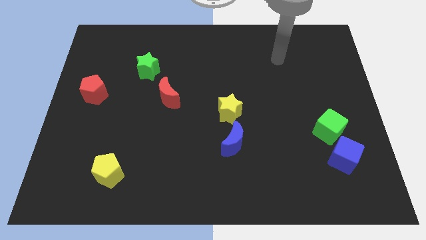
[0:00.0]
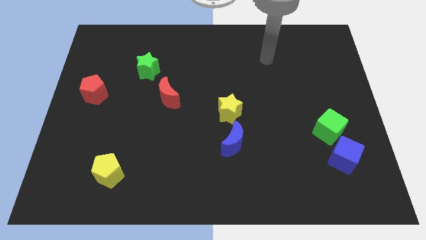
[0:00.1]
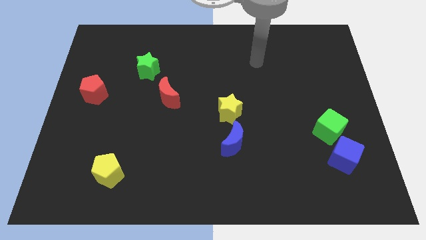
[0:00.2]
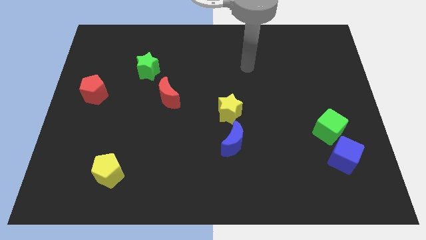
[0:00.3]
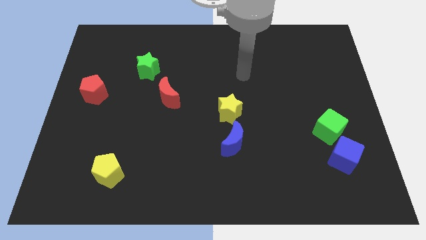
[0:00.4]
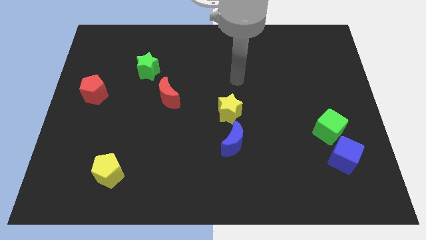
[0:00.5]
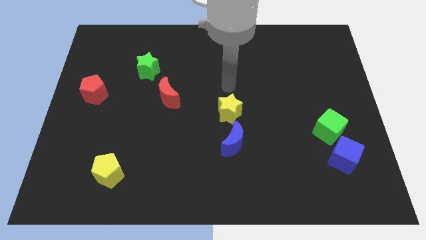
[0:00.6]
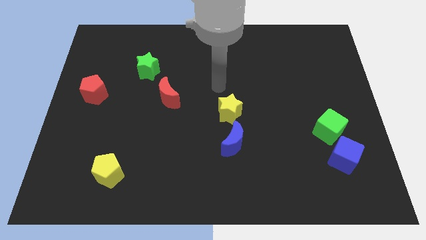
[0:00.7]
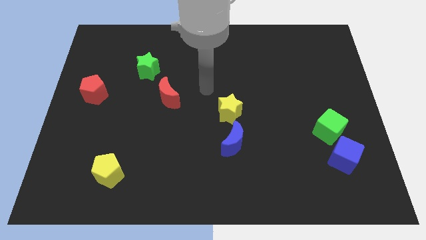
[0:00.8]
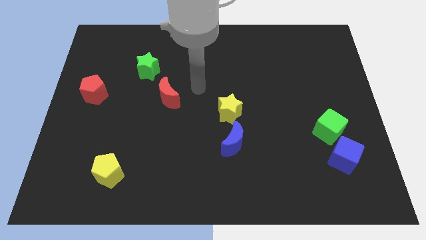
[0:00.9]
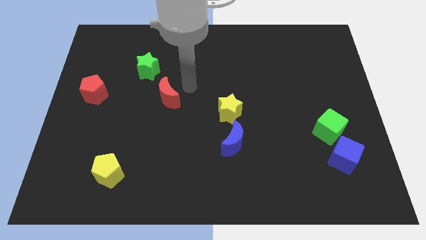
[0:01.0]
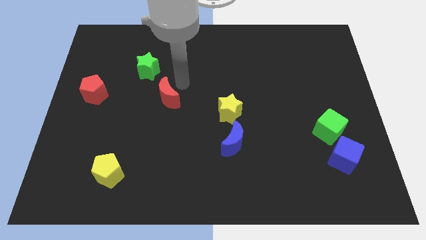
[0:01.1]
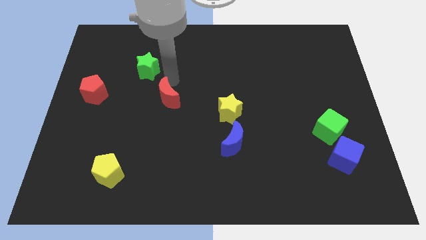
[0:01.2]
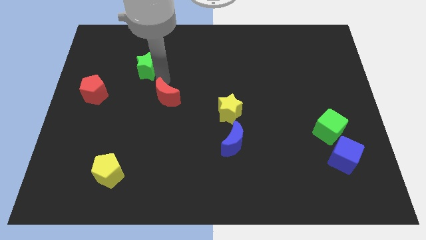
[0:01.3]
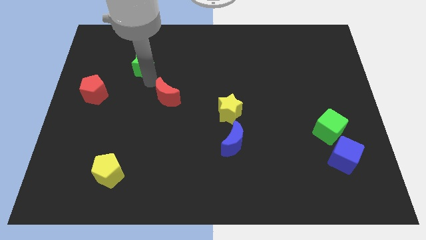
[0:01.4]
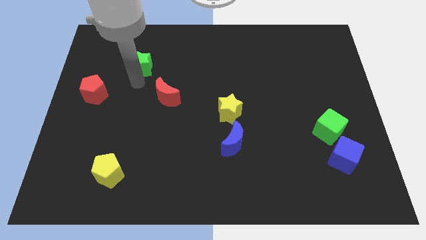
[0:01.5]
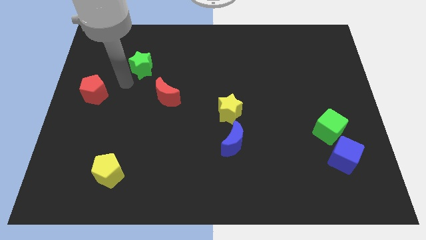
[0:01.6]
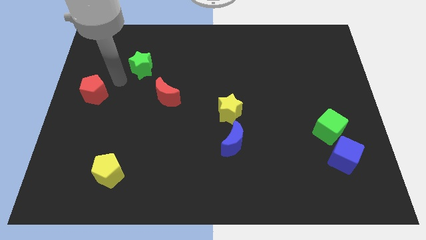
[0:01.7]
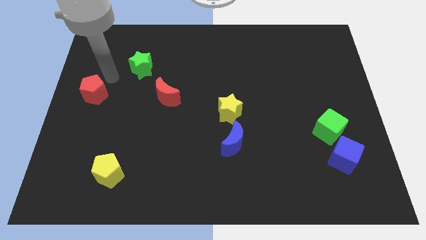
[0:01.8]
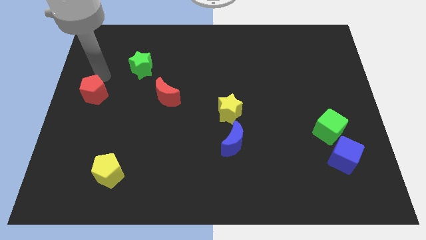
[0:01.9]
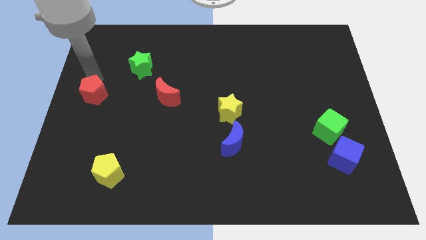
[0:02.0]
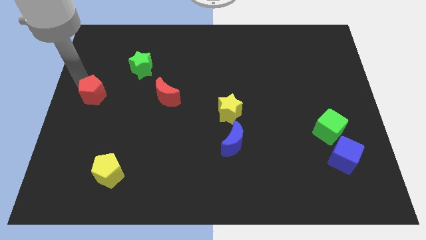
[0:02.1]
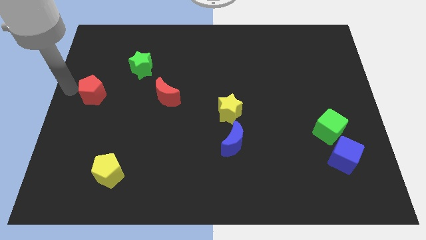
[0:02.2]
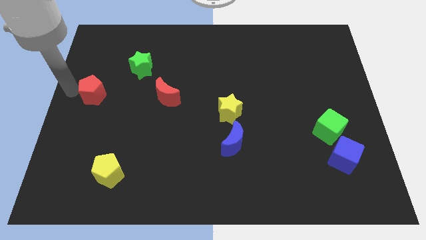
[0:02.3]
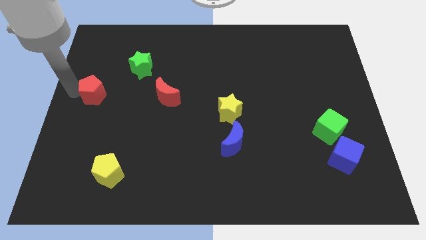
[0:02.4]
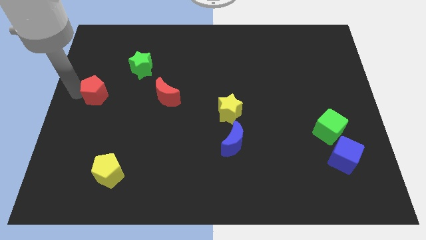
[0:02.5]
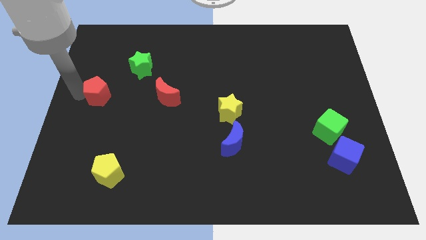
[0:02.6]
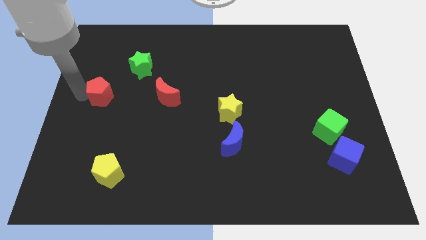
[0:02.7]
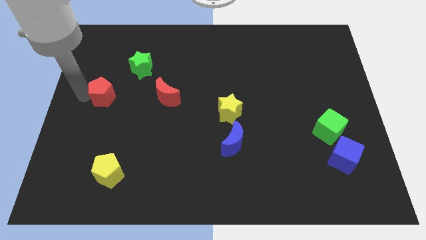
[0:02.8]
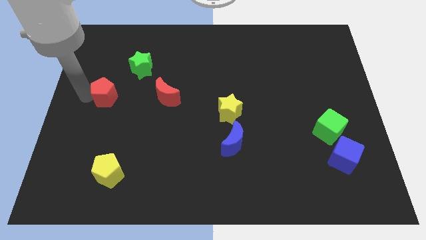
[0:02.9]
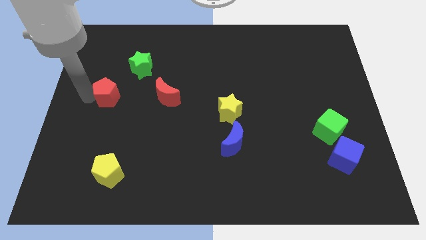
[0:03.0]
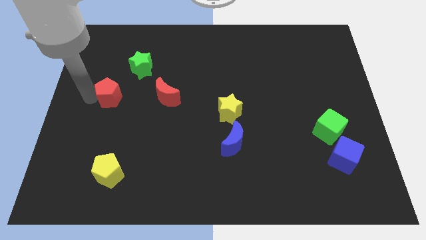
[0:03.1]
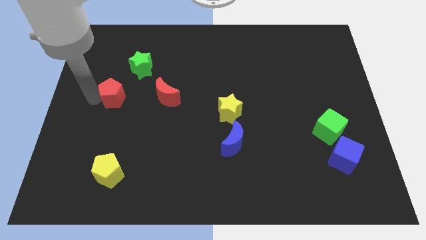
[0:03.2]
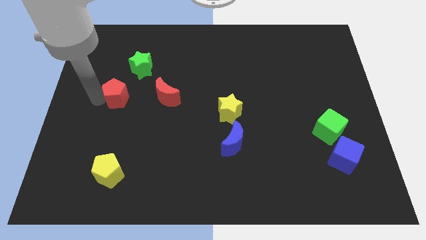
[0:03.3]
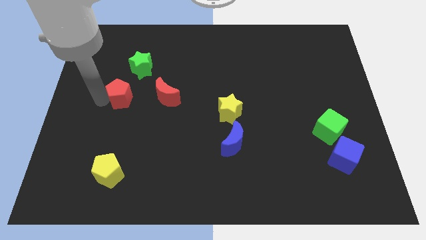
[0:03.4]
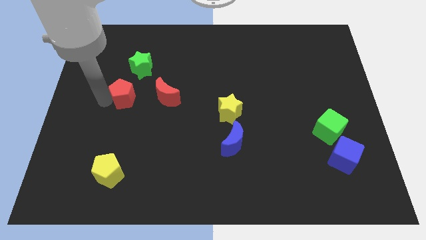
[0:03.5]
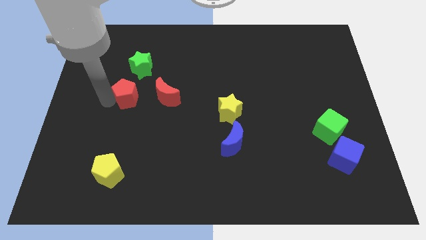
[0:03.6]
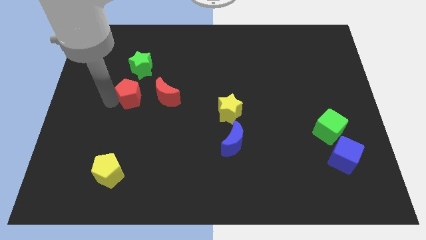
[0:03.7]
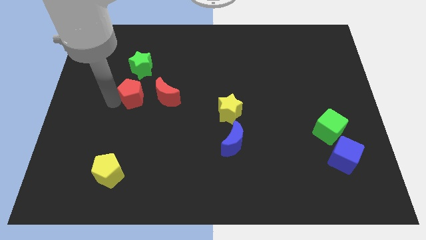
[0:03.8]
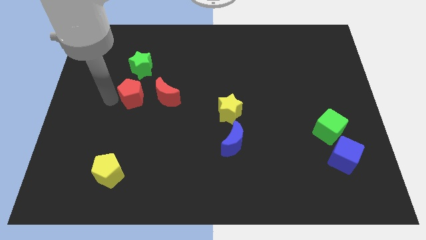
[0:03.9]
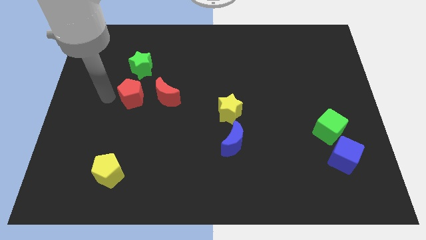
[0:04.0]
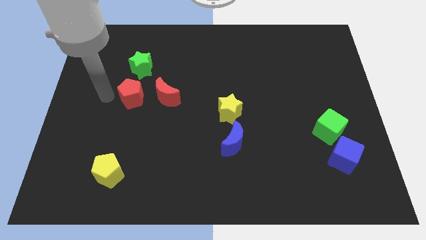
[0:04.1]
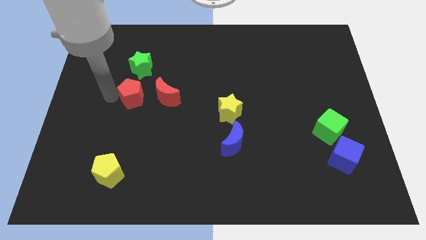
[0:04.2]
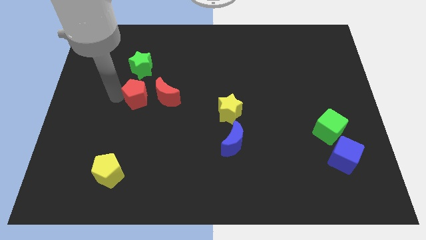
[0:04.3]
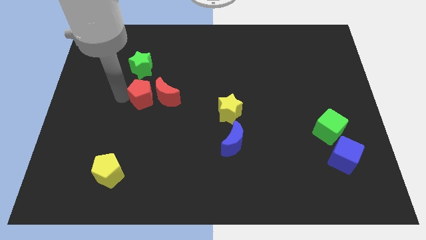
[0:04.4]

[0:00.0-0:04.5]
put the red pentagon to the red moon

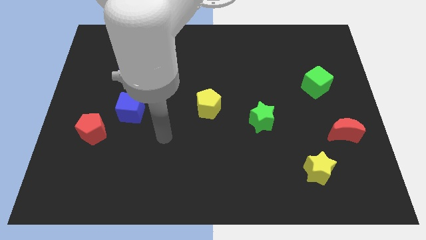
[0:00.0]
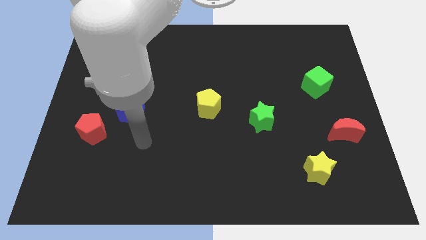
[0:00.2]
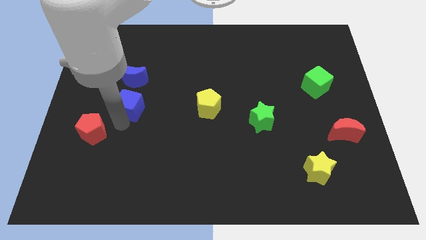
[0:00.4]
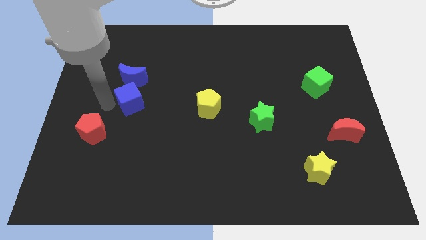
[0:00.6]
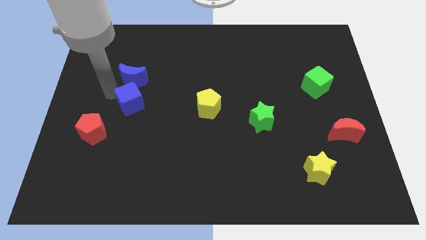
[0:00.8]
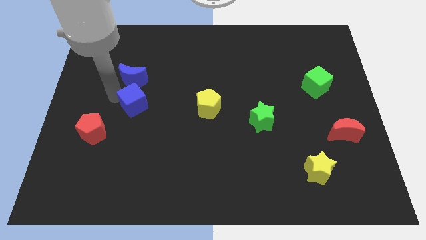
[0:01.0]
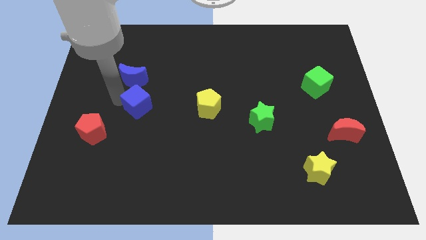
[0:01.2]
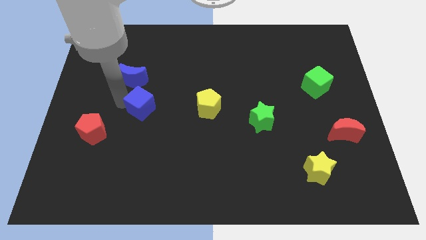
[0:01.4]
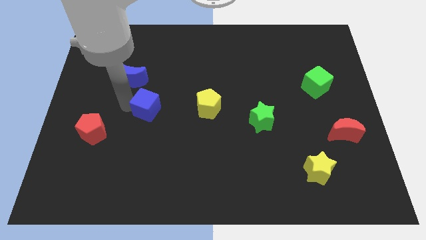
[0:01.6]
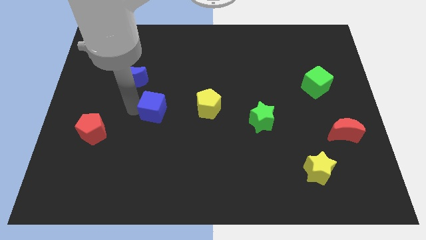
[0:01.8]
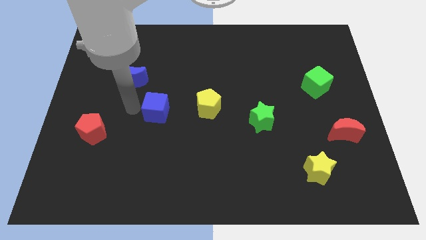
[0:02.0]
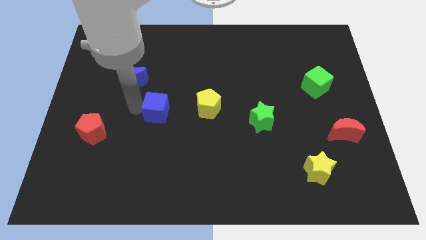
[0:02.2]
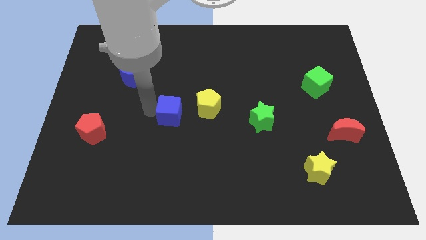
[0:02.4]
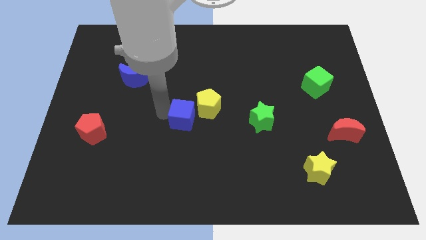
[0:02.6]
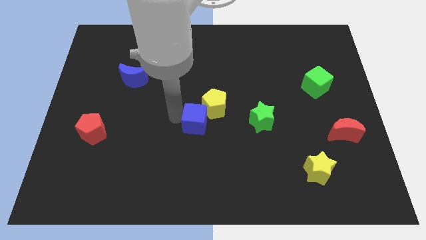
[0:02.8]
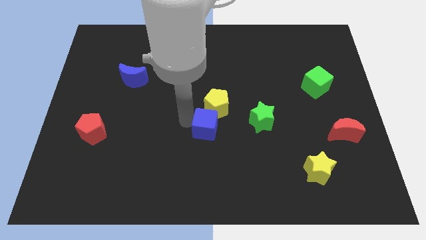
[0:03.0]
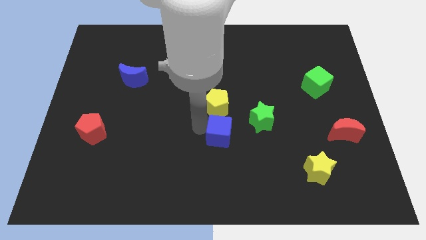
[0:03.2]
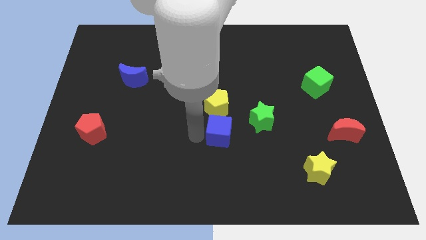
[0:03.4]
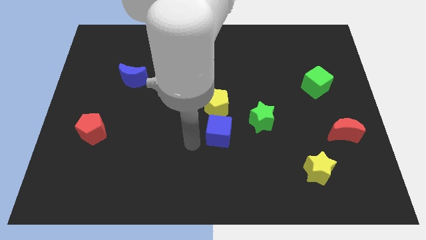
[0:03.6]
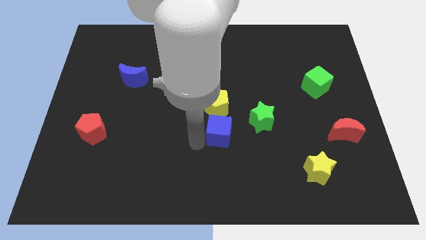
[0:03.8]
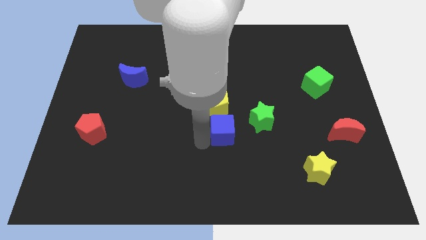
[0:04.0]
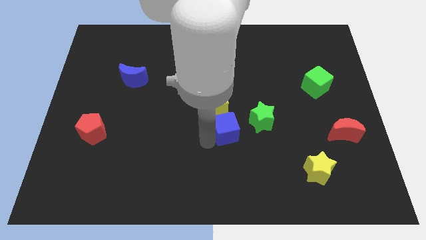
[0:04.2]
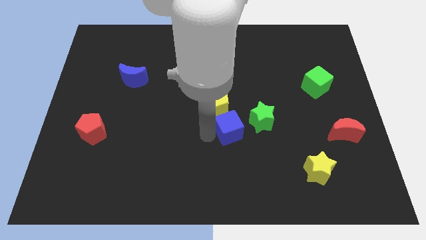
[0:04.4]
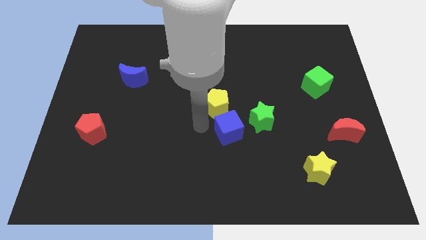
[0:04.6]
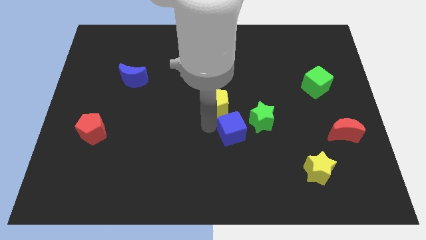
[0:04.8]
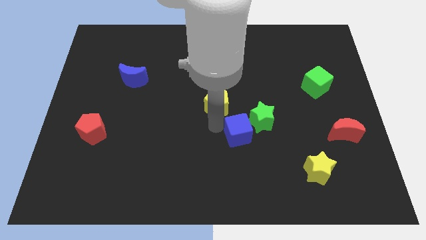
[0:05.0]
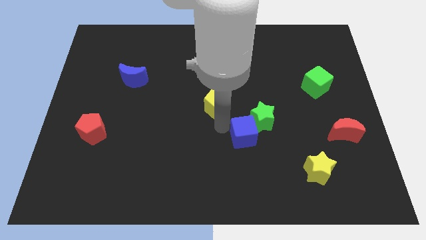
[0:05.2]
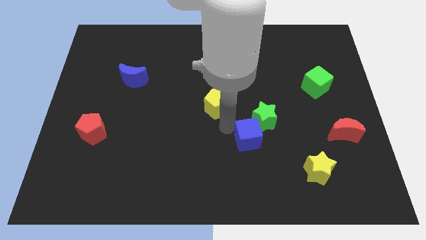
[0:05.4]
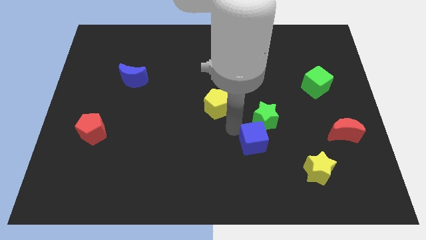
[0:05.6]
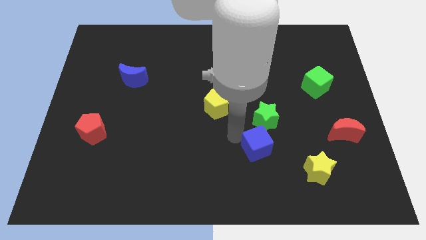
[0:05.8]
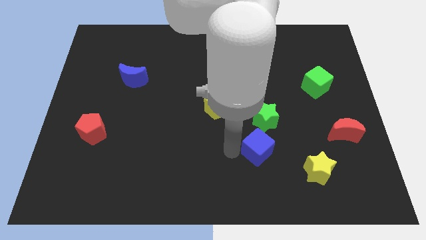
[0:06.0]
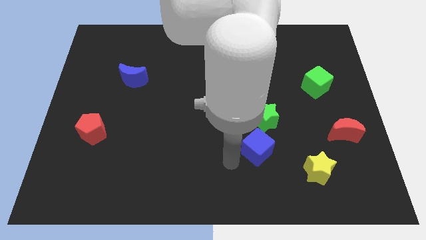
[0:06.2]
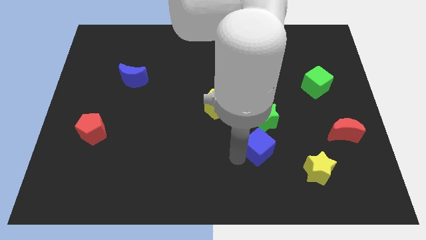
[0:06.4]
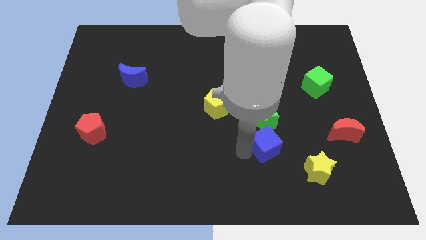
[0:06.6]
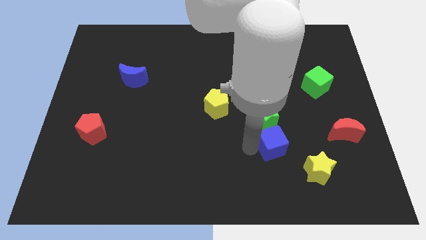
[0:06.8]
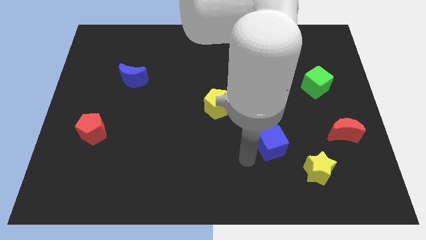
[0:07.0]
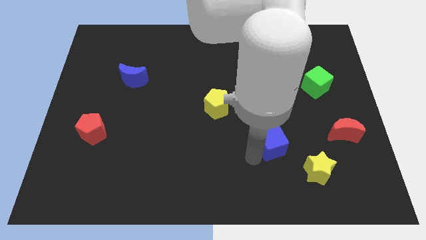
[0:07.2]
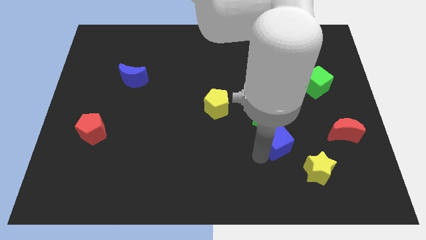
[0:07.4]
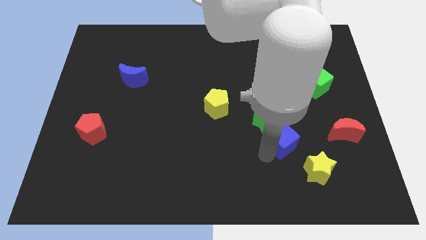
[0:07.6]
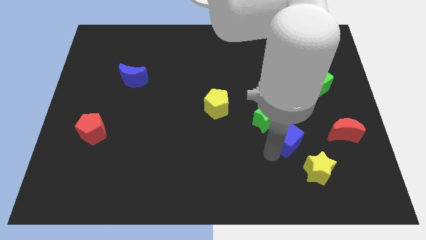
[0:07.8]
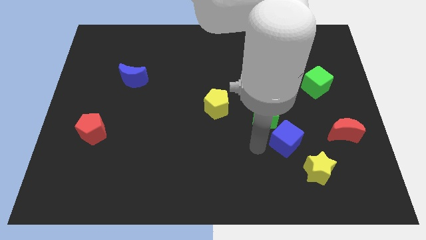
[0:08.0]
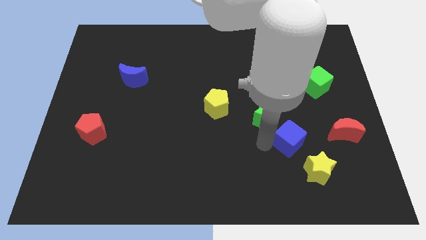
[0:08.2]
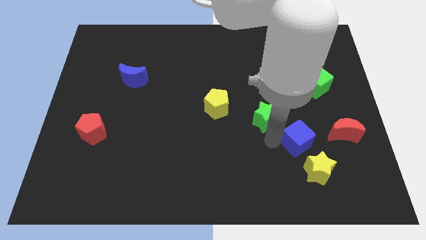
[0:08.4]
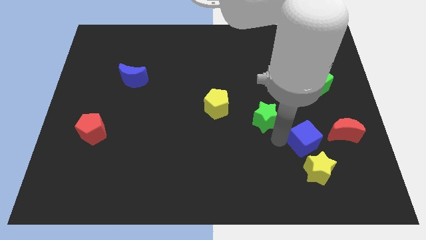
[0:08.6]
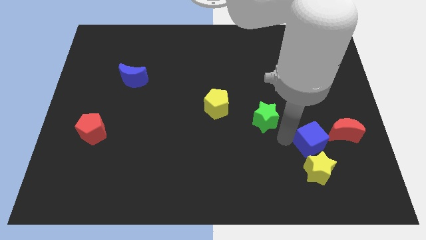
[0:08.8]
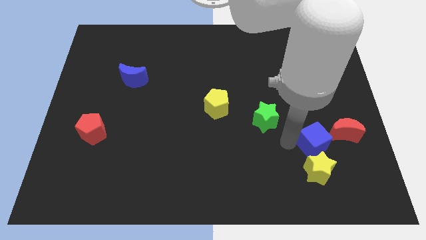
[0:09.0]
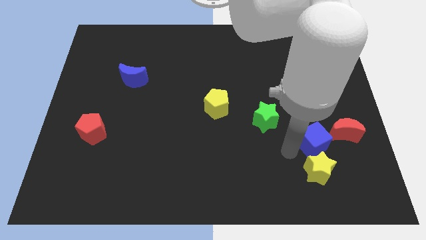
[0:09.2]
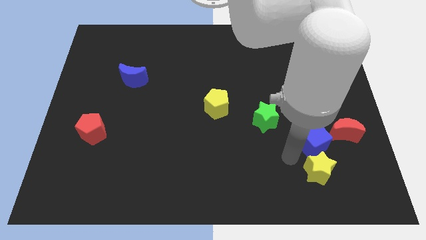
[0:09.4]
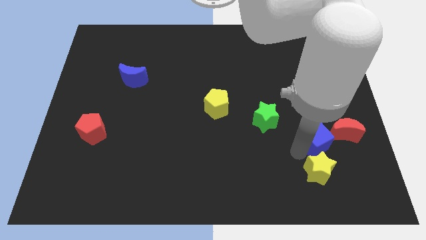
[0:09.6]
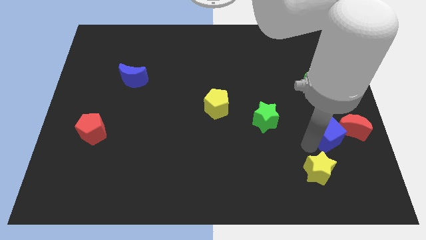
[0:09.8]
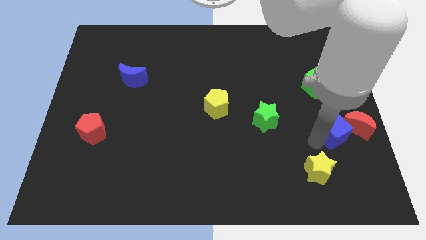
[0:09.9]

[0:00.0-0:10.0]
put the blue cube next to the red moon
